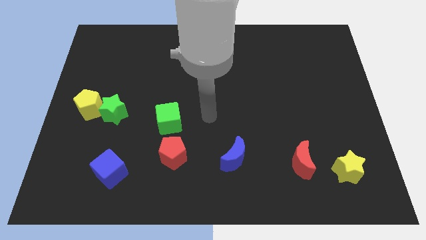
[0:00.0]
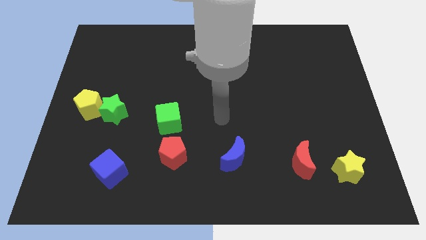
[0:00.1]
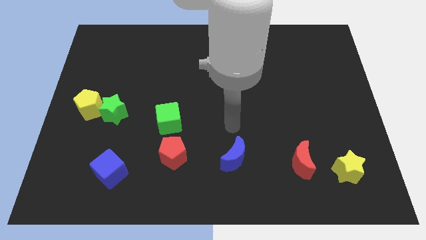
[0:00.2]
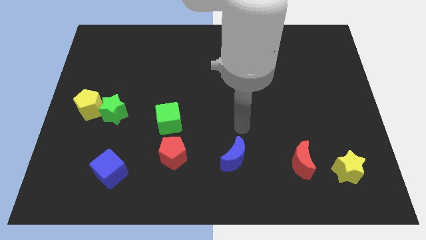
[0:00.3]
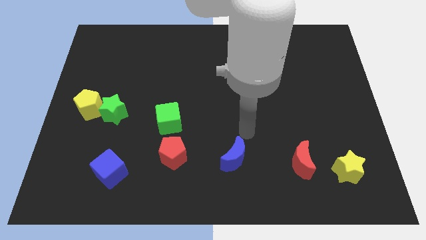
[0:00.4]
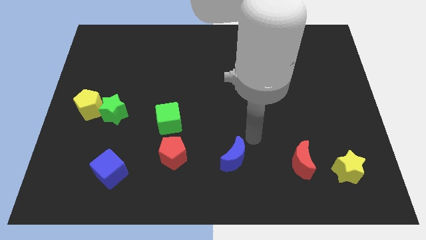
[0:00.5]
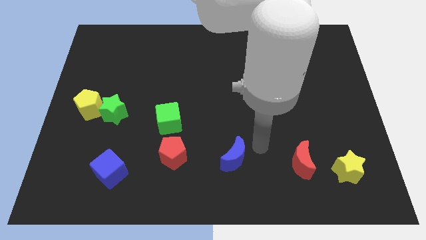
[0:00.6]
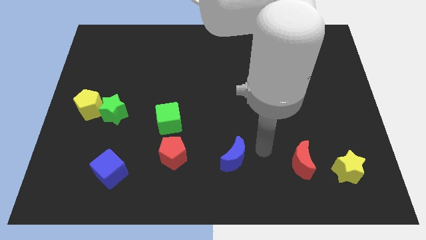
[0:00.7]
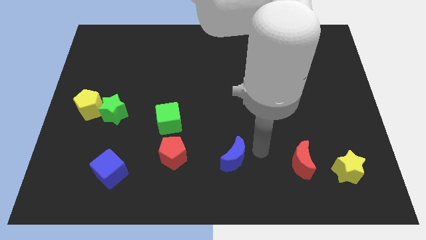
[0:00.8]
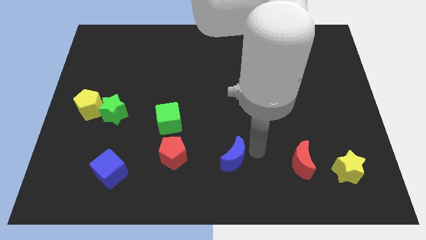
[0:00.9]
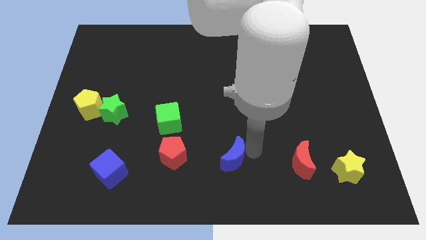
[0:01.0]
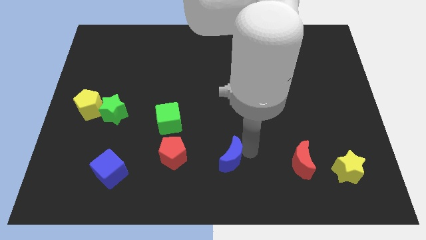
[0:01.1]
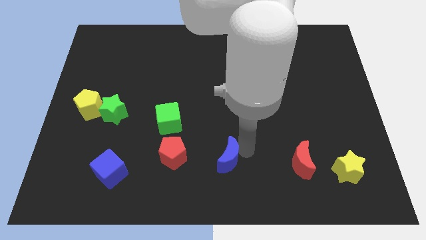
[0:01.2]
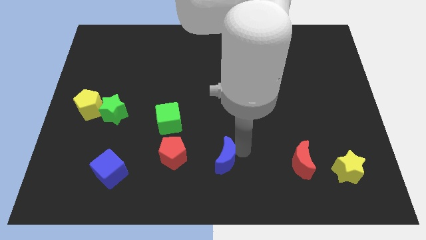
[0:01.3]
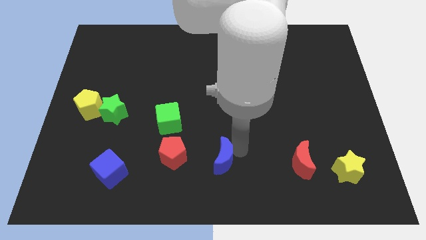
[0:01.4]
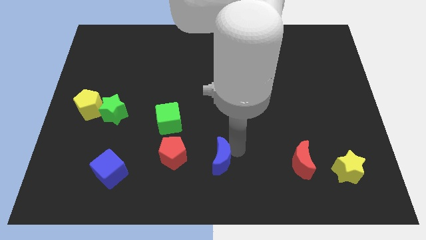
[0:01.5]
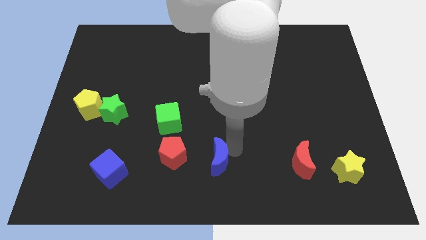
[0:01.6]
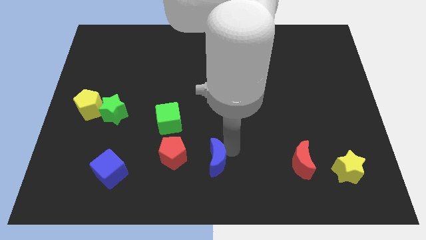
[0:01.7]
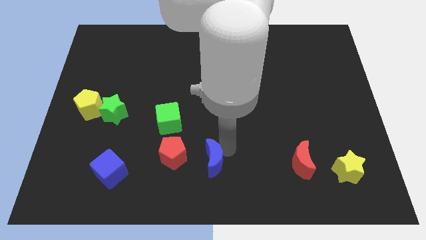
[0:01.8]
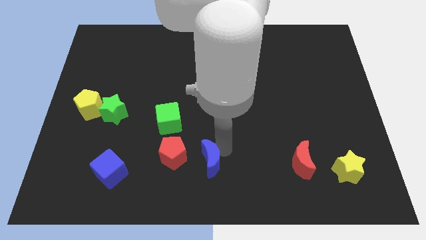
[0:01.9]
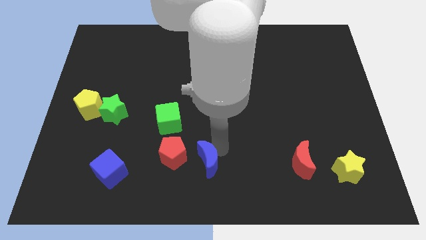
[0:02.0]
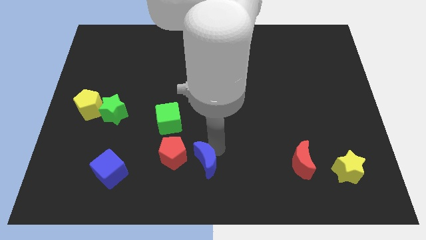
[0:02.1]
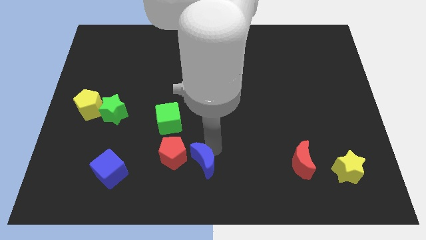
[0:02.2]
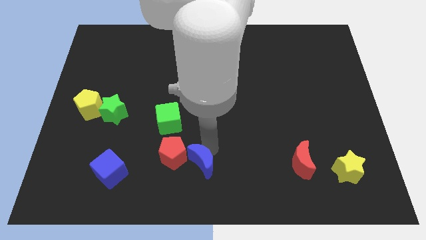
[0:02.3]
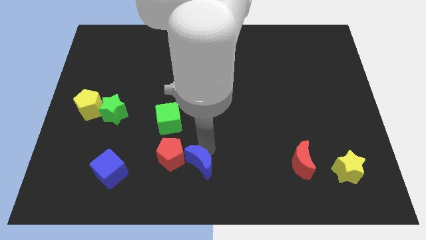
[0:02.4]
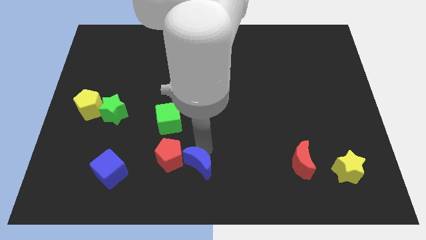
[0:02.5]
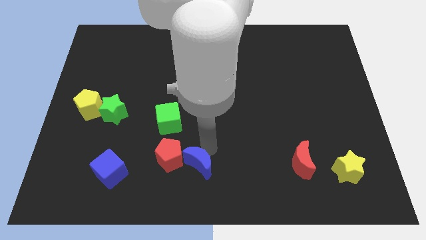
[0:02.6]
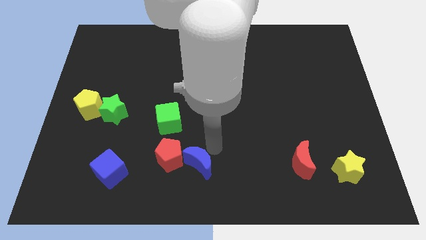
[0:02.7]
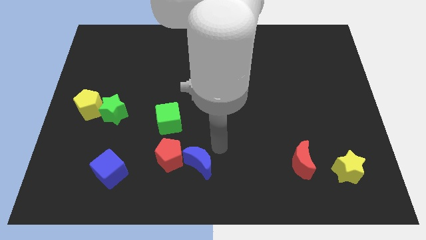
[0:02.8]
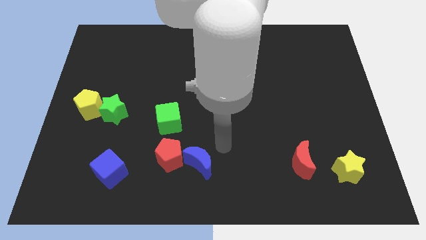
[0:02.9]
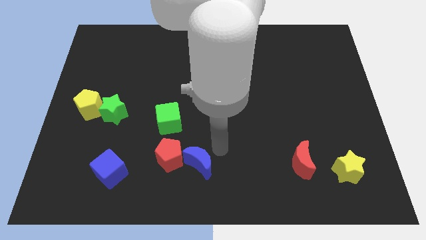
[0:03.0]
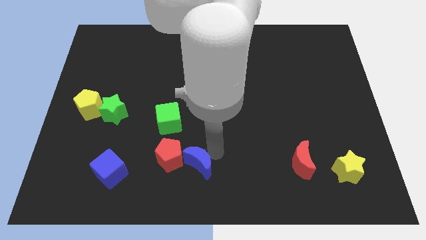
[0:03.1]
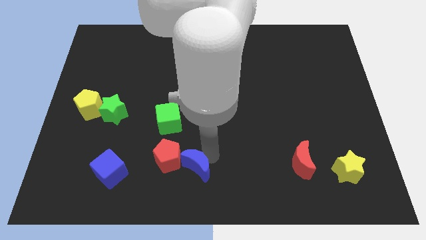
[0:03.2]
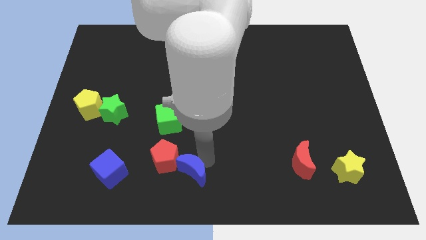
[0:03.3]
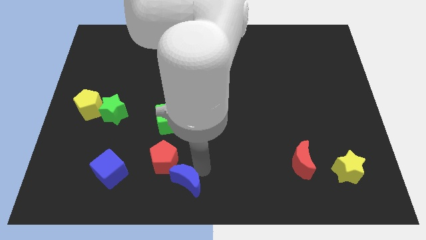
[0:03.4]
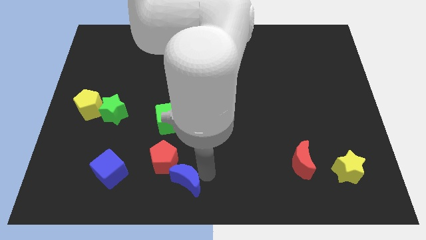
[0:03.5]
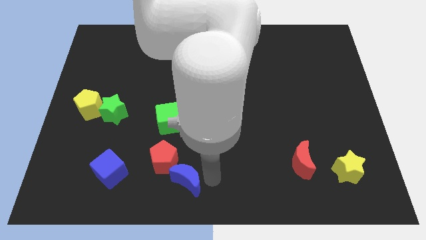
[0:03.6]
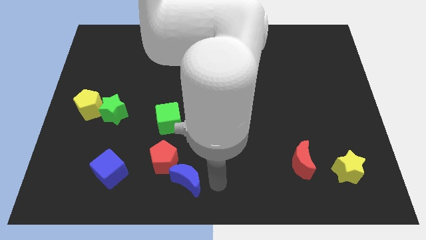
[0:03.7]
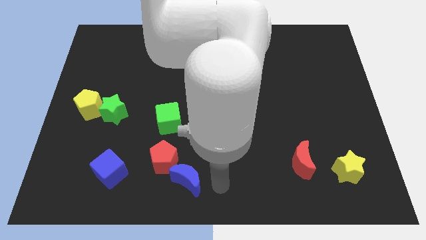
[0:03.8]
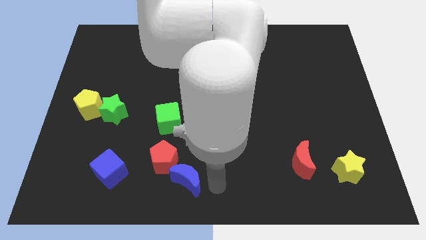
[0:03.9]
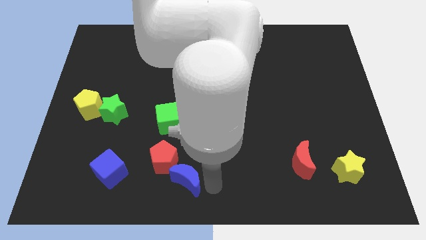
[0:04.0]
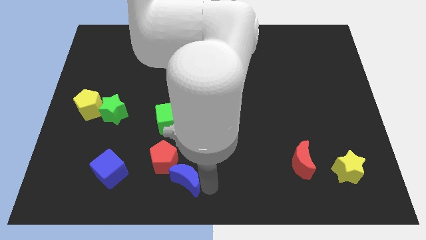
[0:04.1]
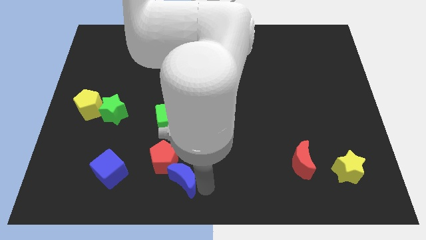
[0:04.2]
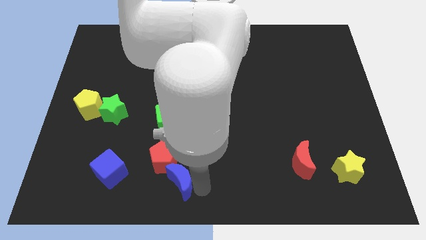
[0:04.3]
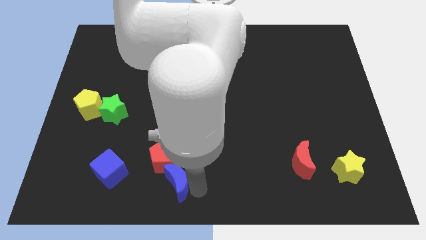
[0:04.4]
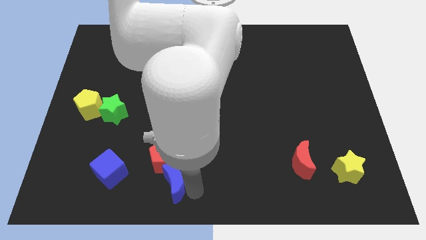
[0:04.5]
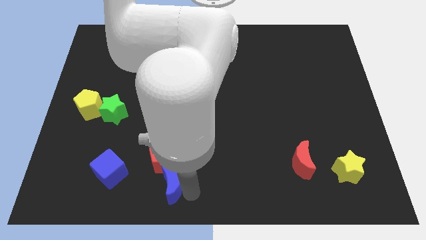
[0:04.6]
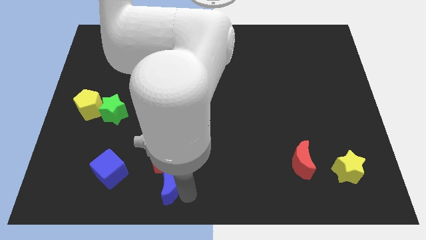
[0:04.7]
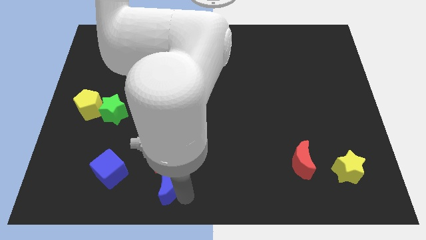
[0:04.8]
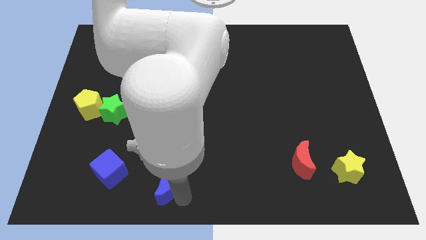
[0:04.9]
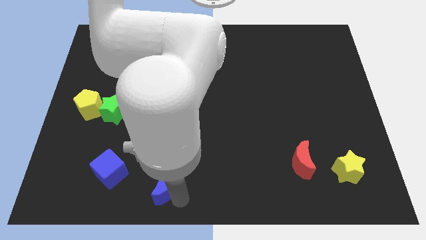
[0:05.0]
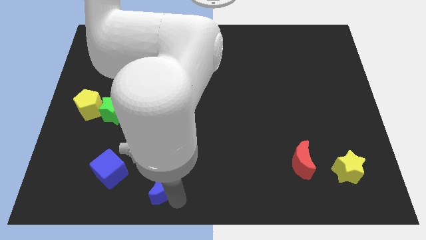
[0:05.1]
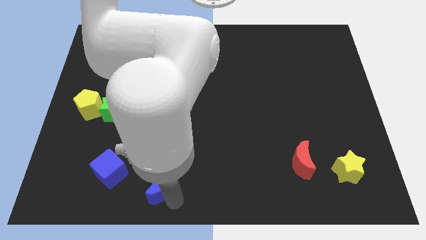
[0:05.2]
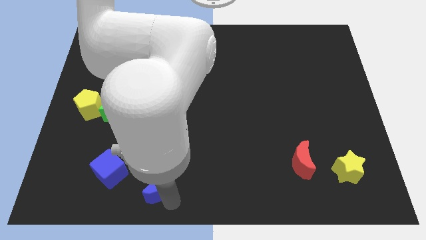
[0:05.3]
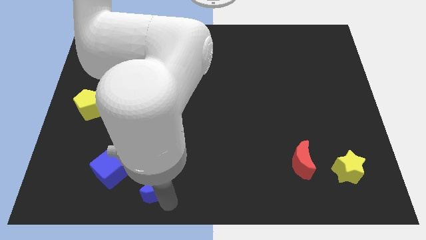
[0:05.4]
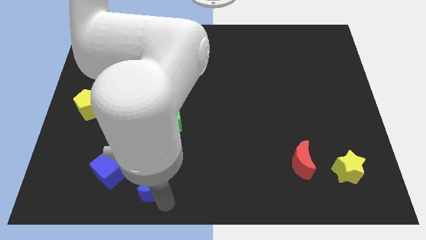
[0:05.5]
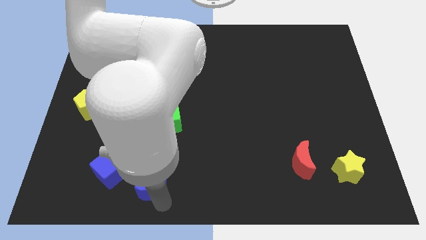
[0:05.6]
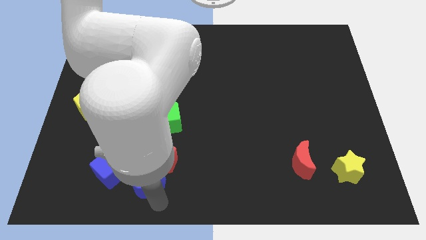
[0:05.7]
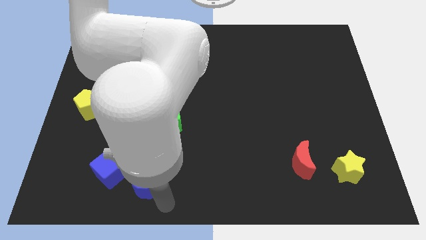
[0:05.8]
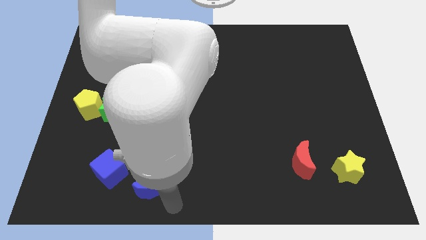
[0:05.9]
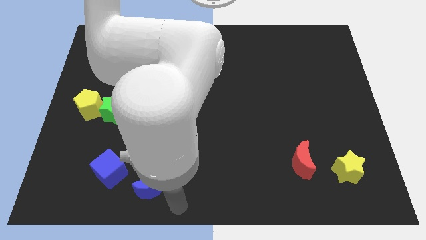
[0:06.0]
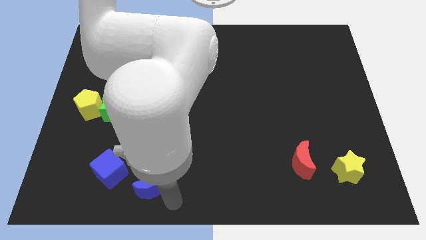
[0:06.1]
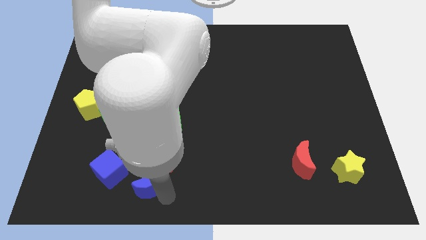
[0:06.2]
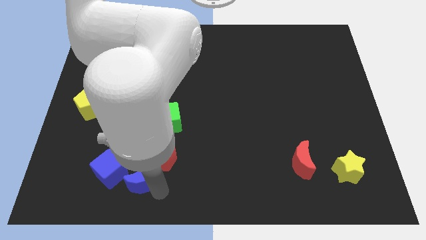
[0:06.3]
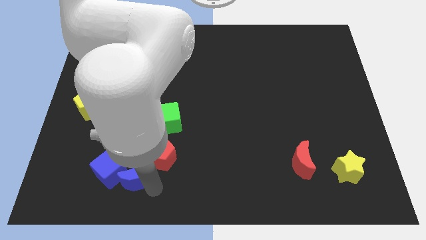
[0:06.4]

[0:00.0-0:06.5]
put the blue moon to the blue cube

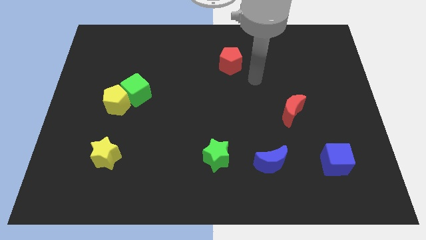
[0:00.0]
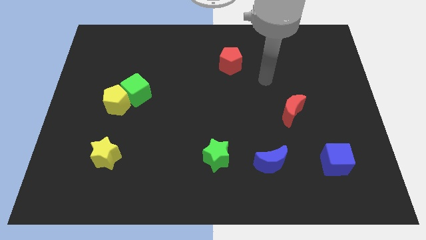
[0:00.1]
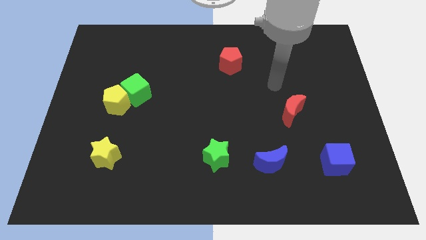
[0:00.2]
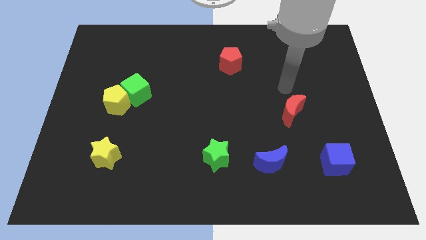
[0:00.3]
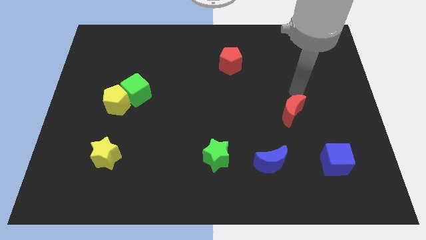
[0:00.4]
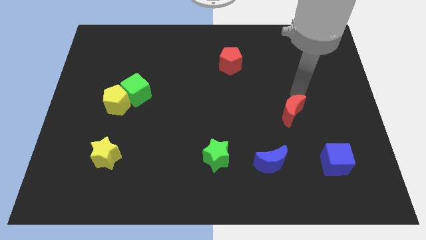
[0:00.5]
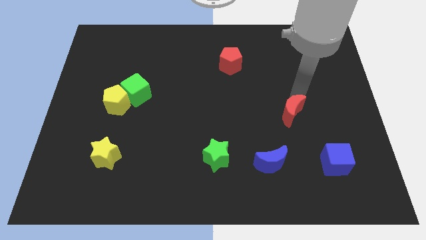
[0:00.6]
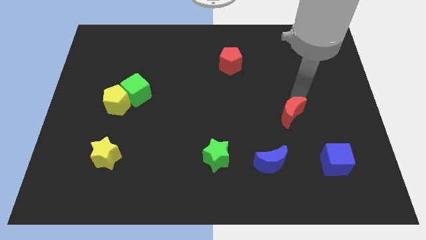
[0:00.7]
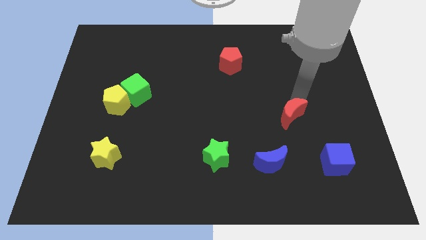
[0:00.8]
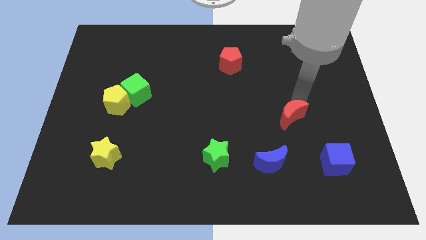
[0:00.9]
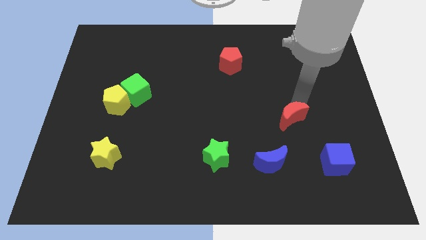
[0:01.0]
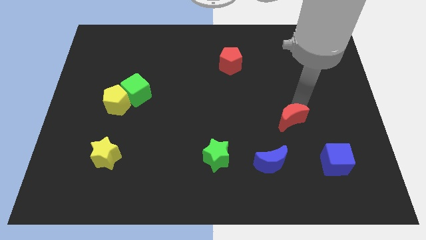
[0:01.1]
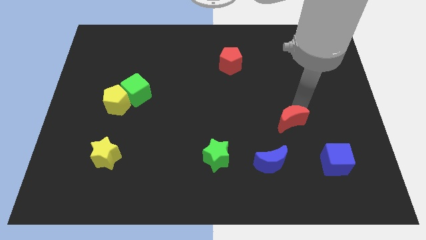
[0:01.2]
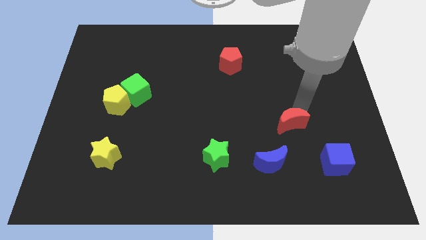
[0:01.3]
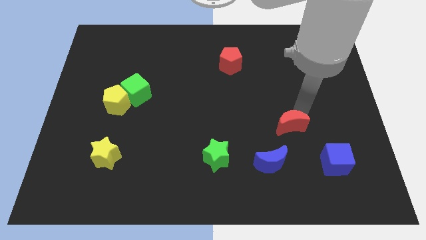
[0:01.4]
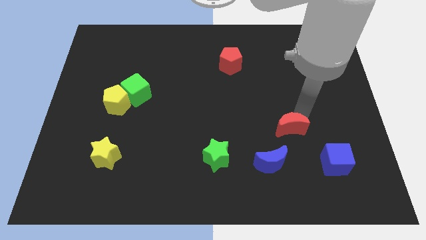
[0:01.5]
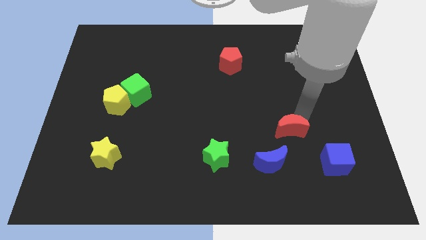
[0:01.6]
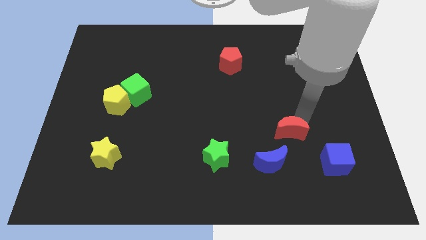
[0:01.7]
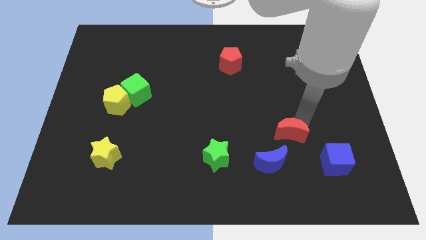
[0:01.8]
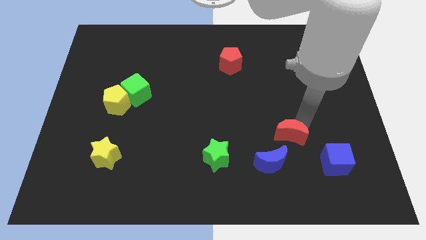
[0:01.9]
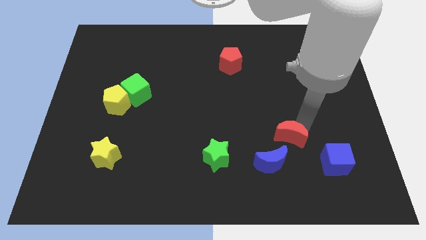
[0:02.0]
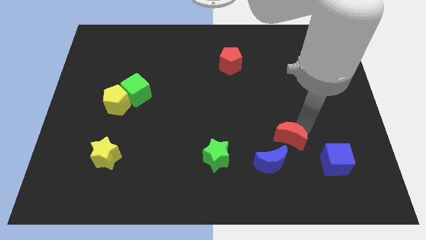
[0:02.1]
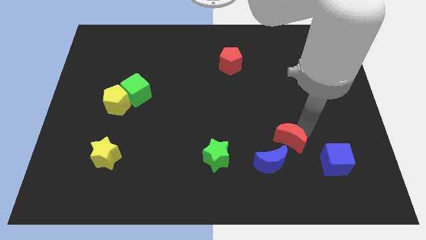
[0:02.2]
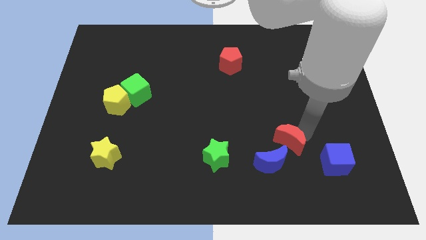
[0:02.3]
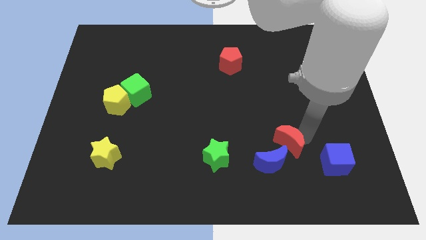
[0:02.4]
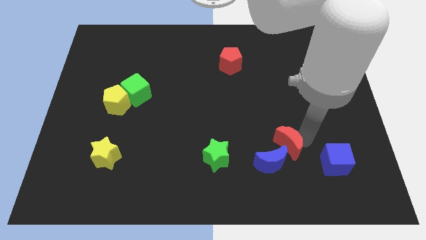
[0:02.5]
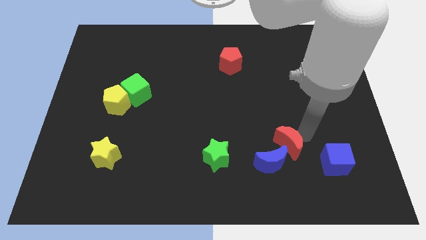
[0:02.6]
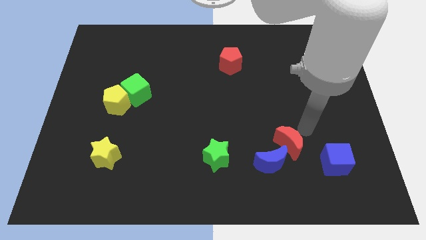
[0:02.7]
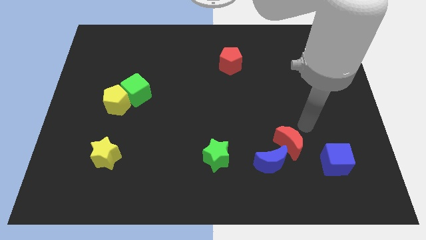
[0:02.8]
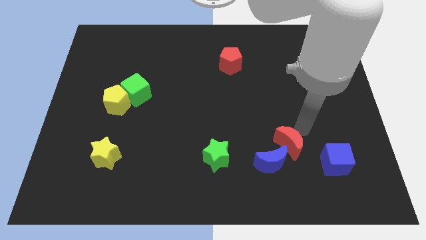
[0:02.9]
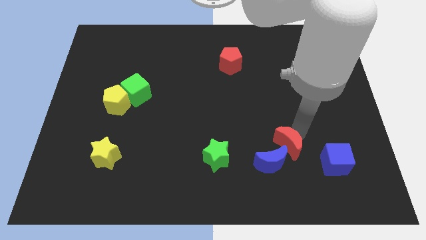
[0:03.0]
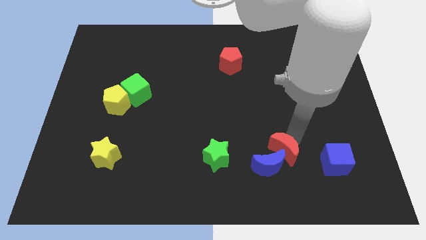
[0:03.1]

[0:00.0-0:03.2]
slide the red moon next to the blue moon
